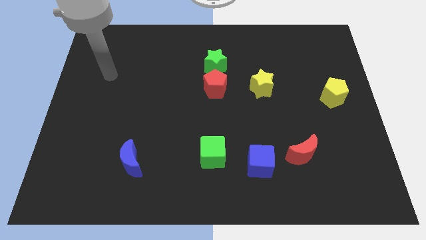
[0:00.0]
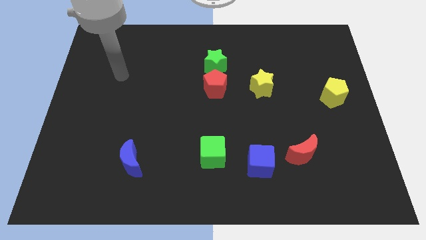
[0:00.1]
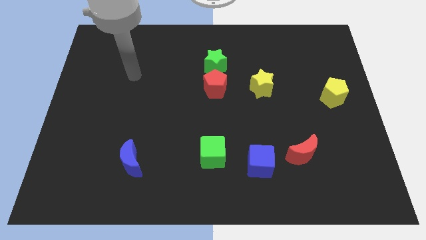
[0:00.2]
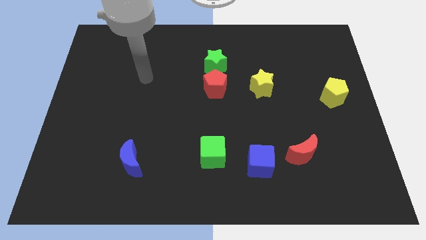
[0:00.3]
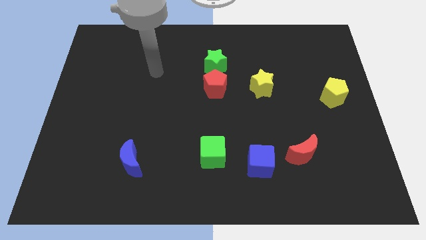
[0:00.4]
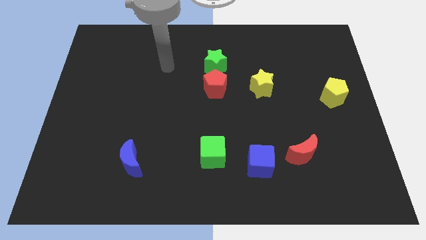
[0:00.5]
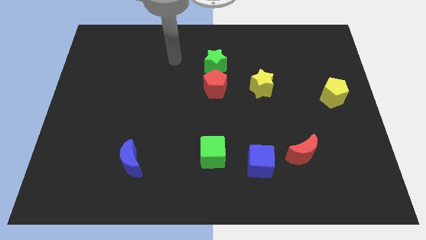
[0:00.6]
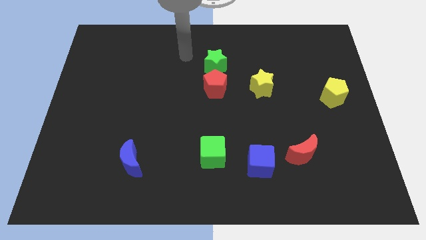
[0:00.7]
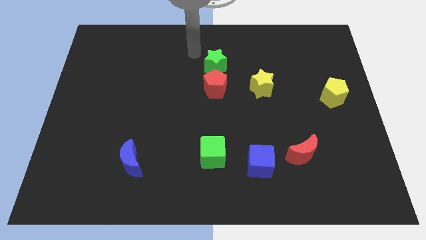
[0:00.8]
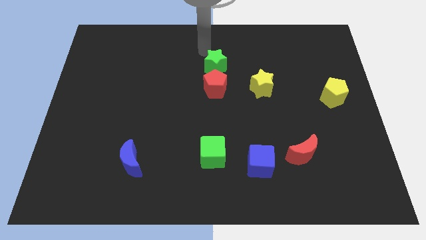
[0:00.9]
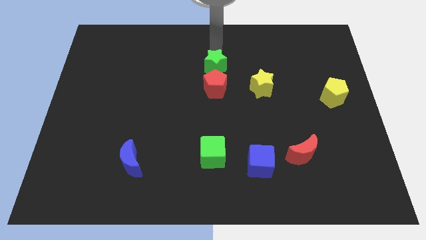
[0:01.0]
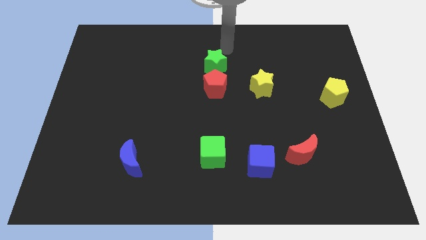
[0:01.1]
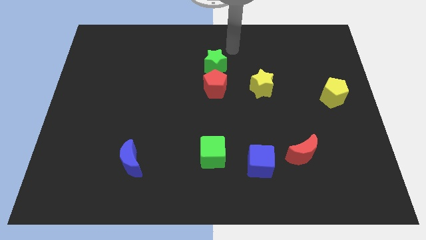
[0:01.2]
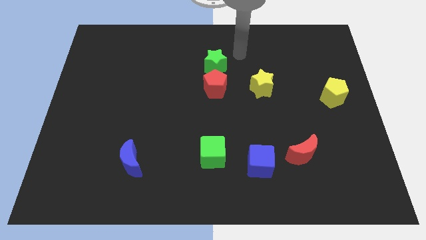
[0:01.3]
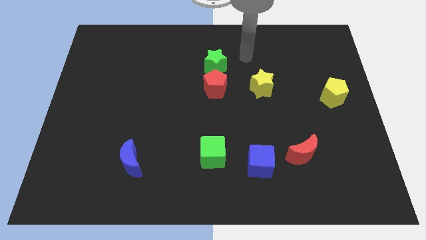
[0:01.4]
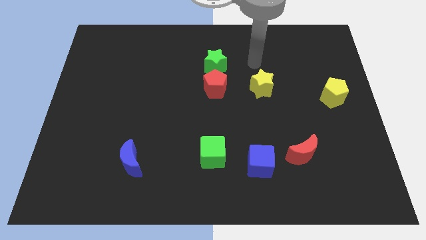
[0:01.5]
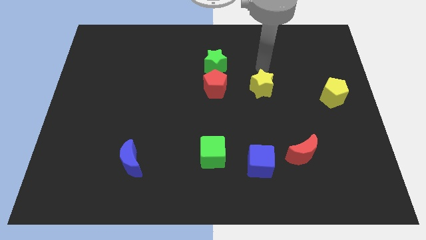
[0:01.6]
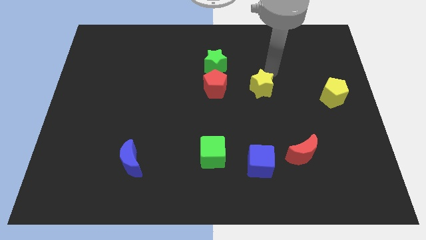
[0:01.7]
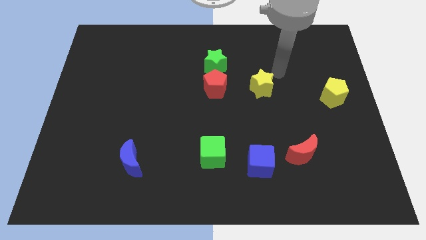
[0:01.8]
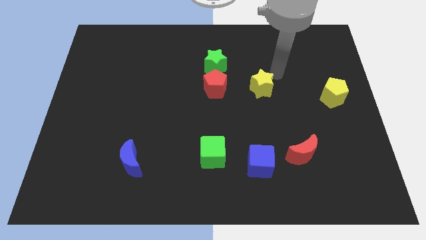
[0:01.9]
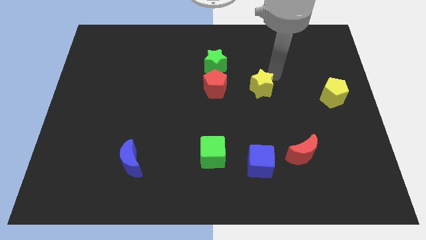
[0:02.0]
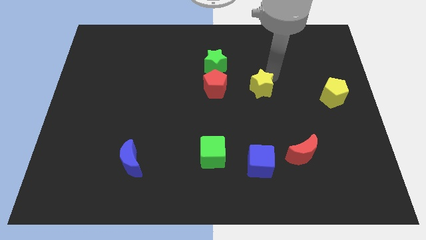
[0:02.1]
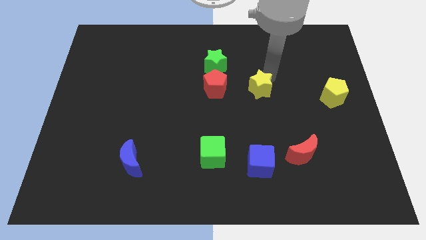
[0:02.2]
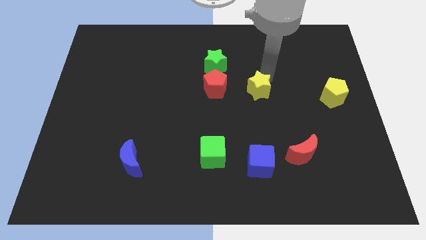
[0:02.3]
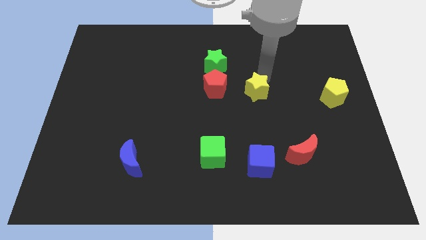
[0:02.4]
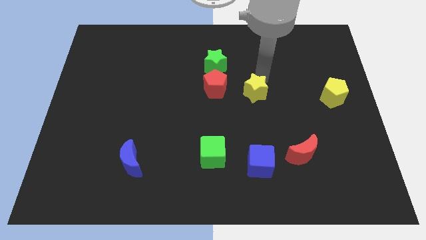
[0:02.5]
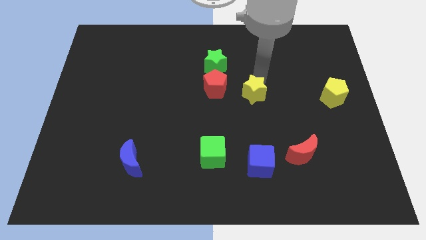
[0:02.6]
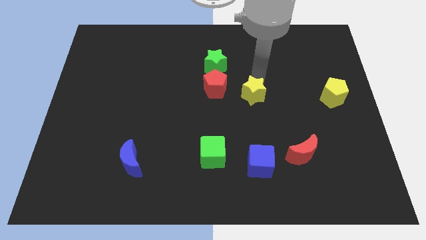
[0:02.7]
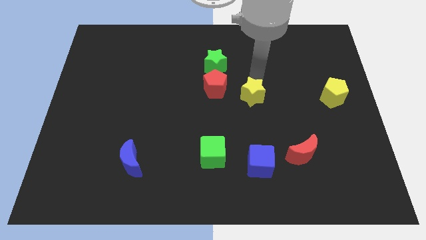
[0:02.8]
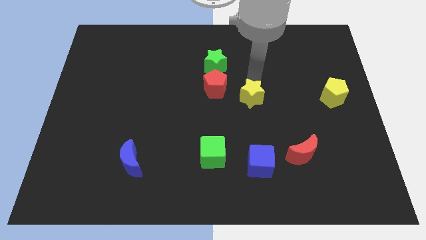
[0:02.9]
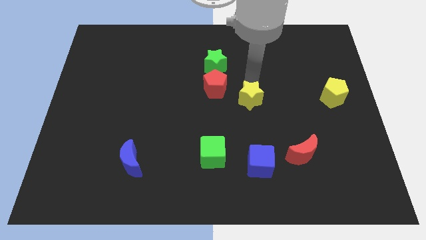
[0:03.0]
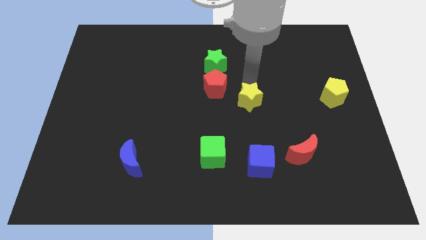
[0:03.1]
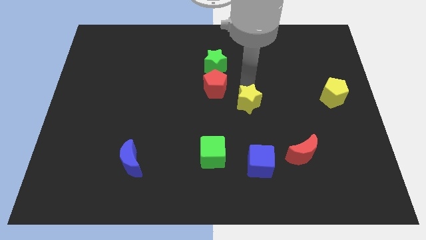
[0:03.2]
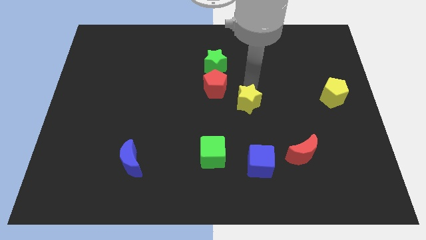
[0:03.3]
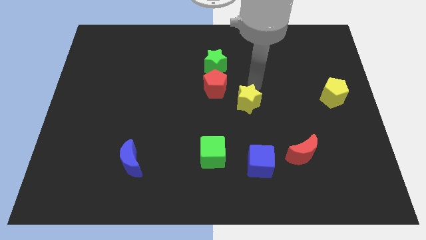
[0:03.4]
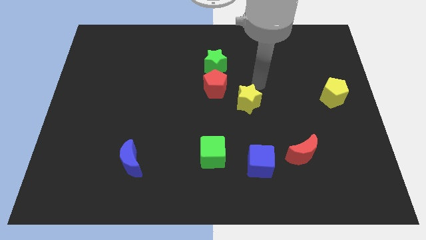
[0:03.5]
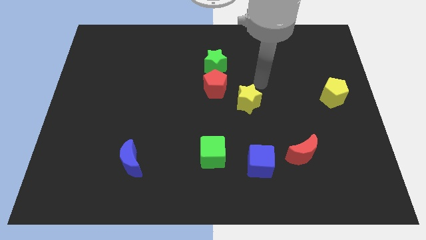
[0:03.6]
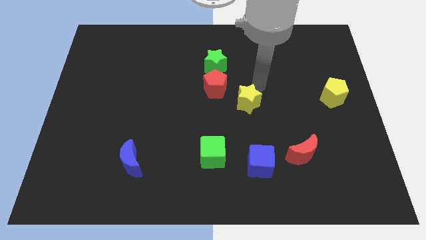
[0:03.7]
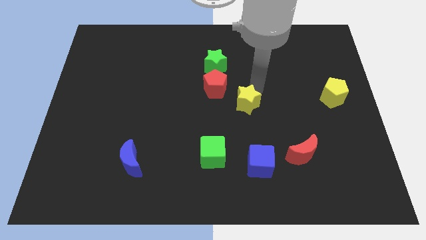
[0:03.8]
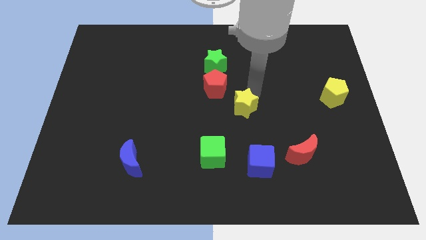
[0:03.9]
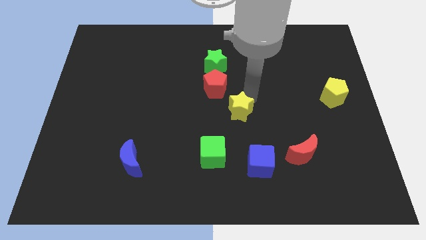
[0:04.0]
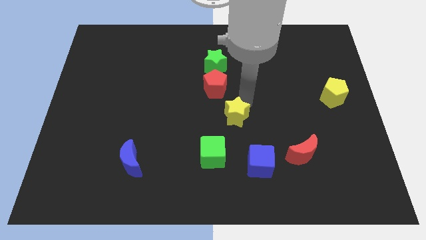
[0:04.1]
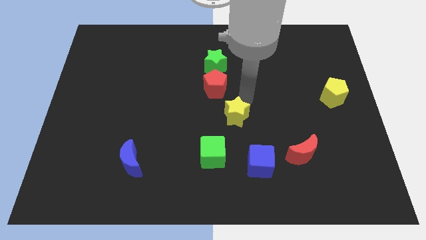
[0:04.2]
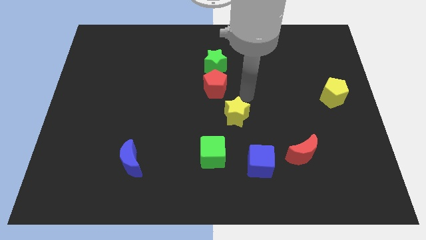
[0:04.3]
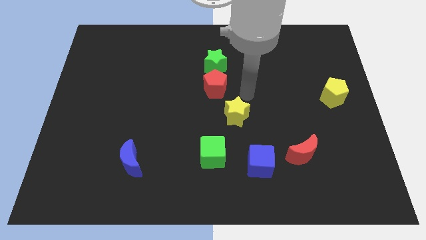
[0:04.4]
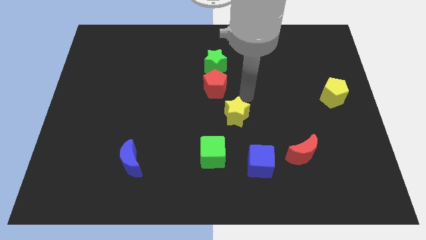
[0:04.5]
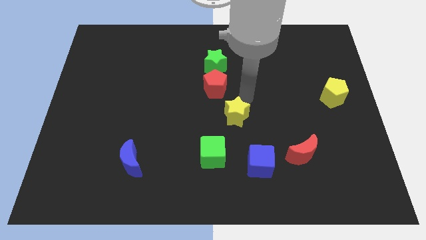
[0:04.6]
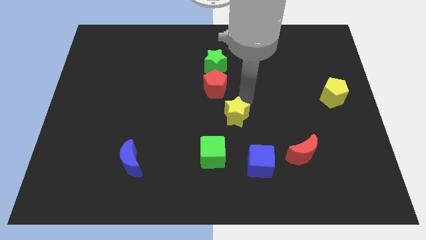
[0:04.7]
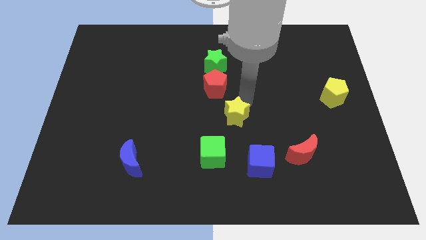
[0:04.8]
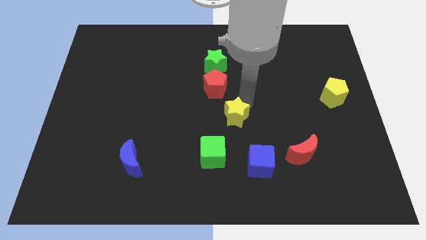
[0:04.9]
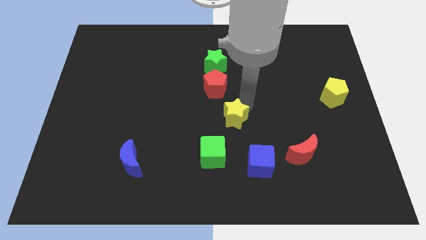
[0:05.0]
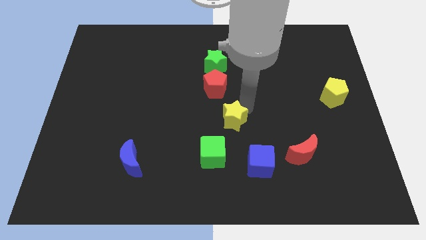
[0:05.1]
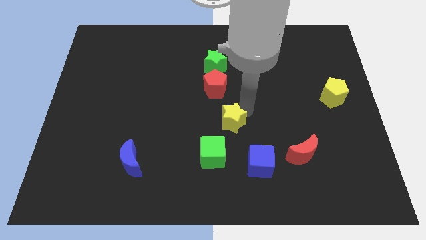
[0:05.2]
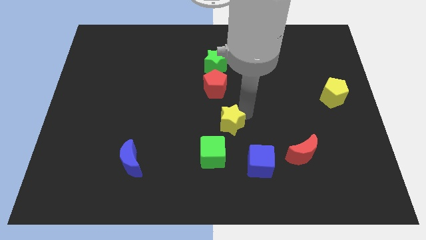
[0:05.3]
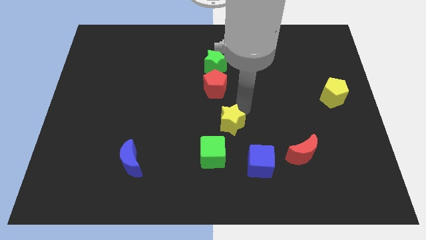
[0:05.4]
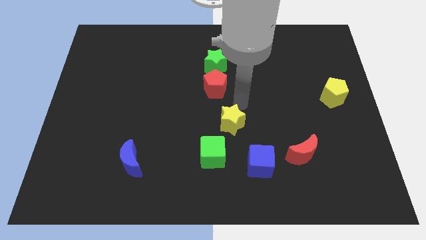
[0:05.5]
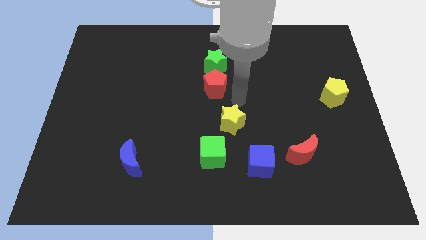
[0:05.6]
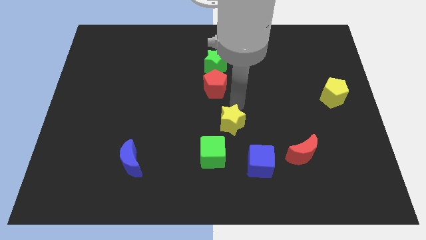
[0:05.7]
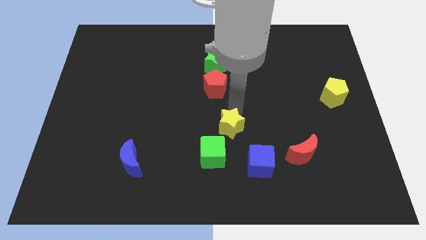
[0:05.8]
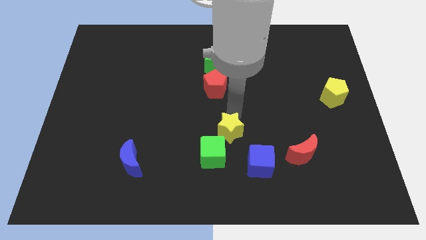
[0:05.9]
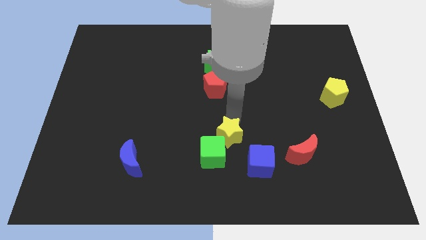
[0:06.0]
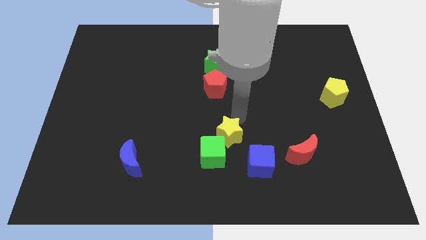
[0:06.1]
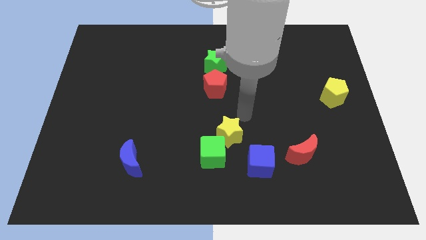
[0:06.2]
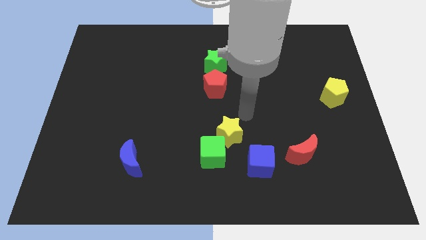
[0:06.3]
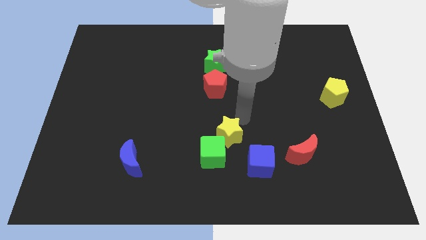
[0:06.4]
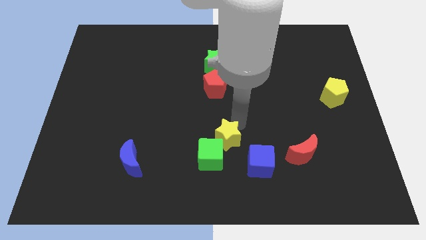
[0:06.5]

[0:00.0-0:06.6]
push the yellow star close to the green cube
